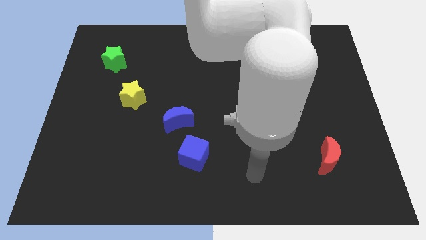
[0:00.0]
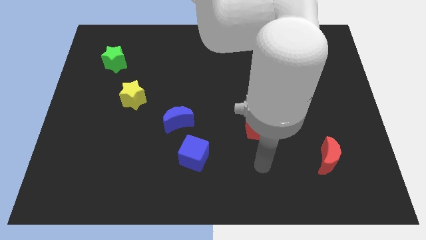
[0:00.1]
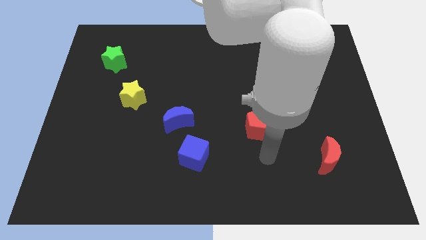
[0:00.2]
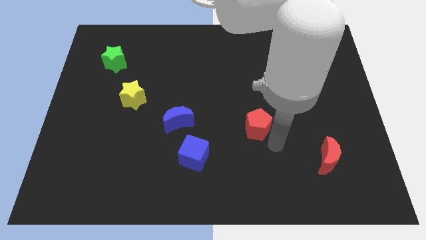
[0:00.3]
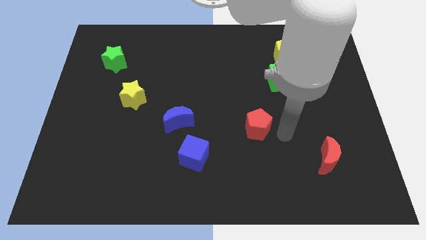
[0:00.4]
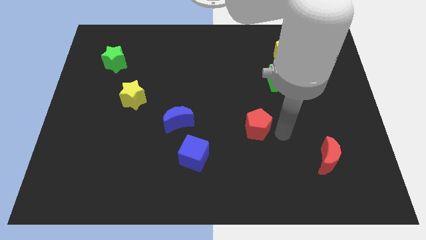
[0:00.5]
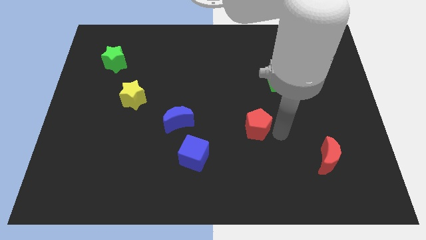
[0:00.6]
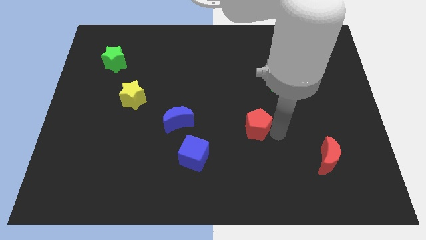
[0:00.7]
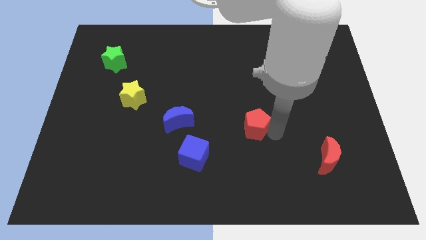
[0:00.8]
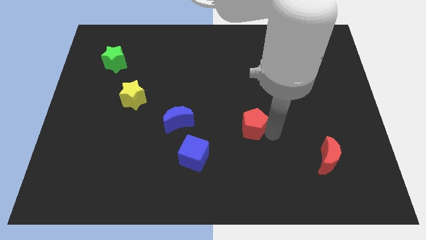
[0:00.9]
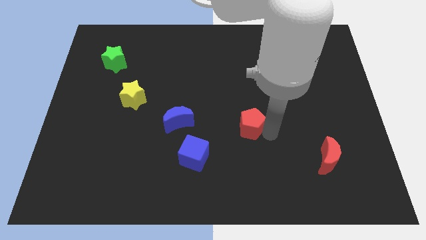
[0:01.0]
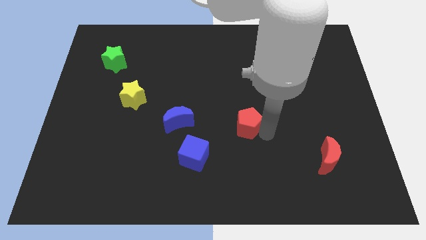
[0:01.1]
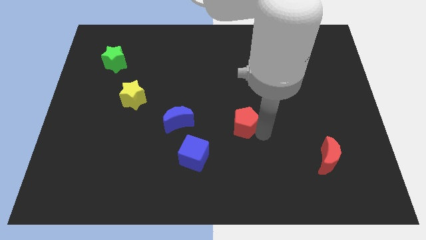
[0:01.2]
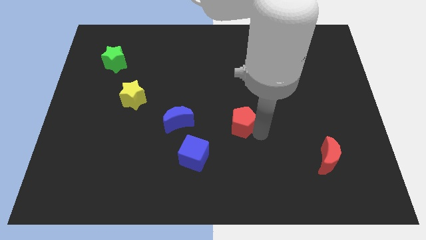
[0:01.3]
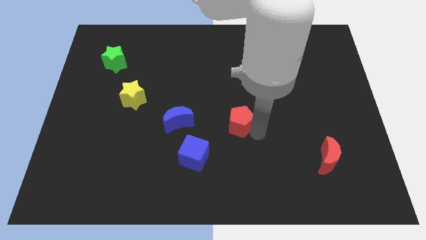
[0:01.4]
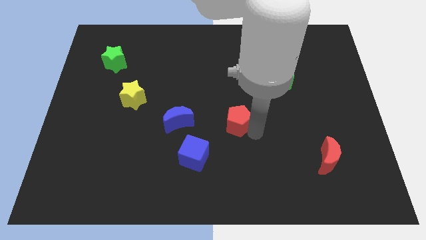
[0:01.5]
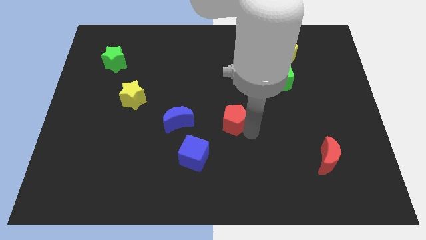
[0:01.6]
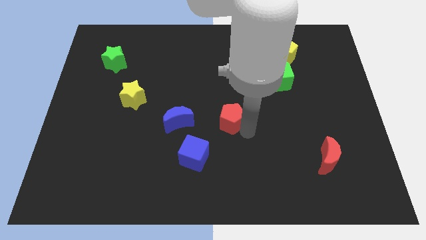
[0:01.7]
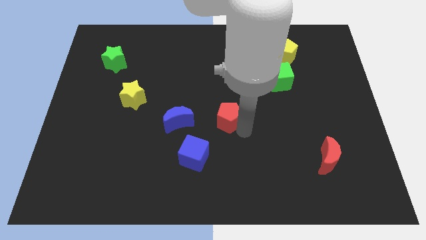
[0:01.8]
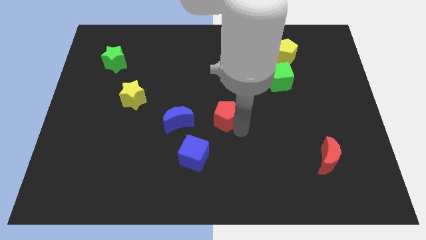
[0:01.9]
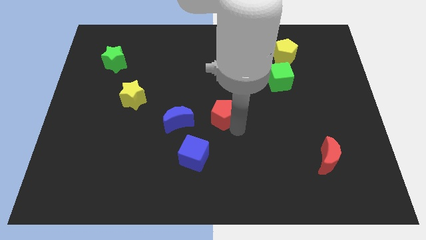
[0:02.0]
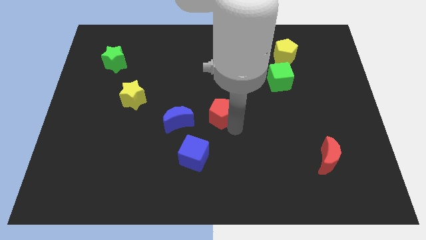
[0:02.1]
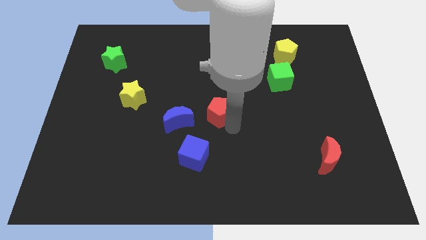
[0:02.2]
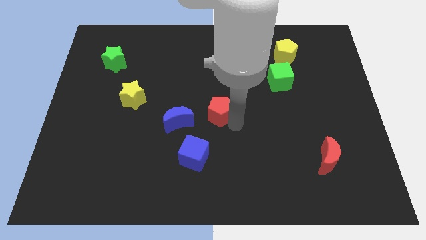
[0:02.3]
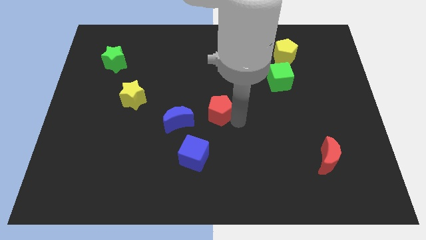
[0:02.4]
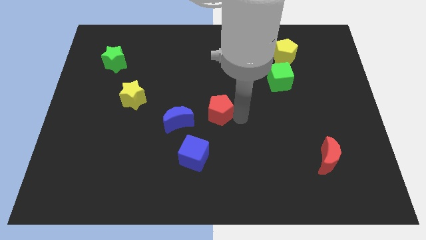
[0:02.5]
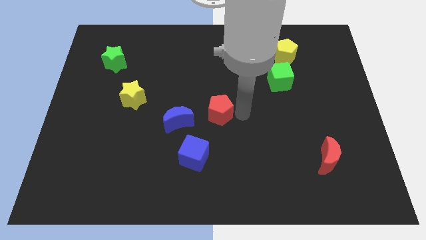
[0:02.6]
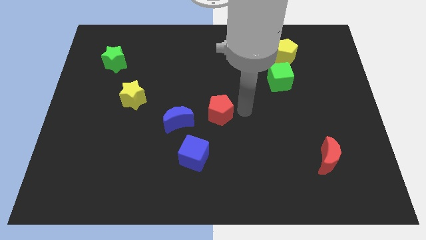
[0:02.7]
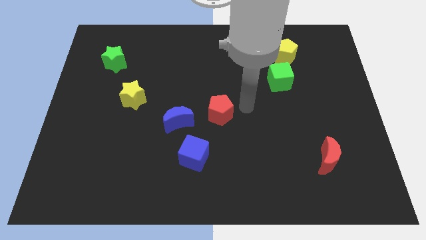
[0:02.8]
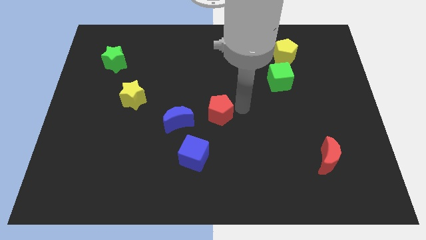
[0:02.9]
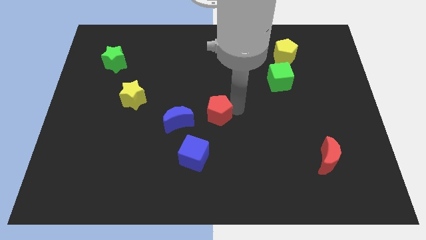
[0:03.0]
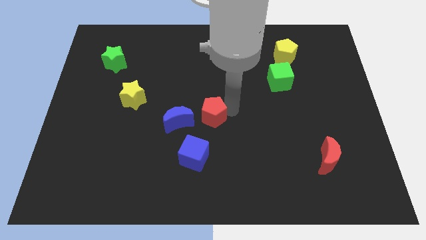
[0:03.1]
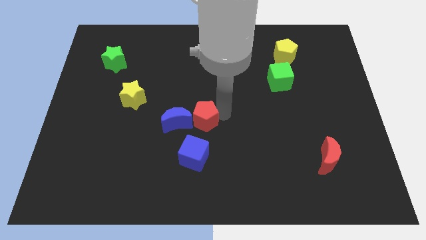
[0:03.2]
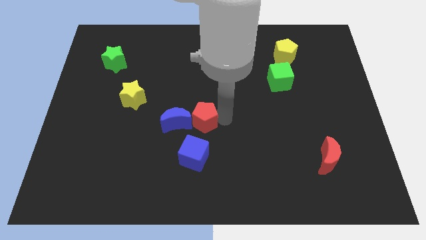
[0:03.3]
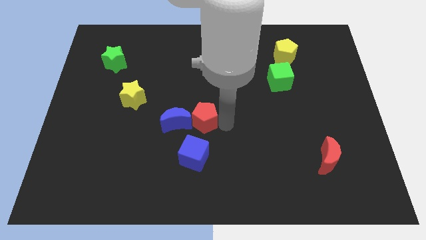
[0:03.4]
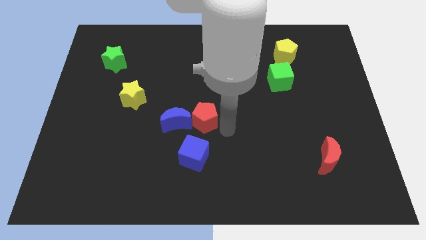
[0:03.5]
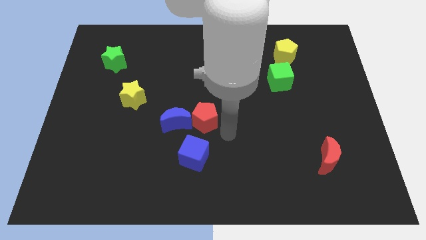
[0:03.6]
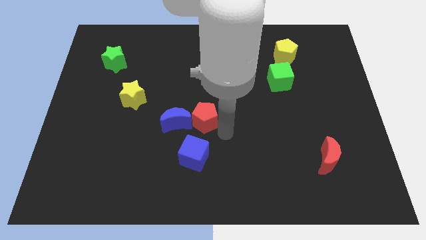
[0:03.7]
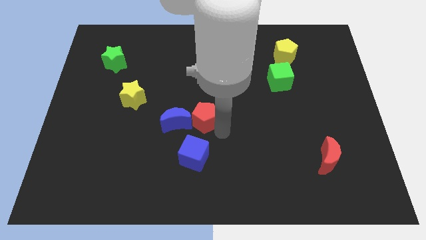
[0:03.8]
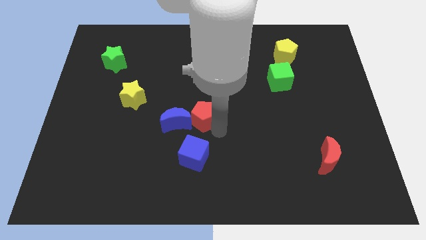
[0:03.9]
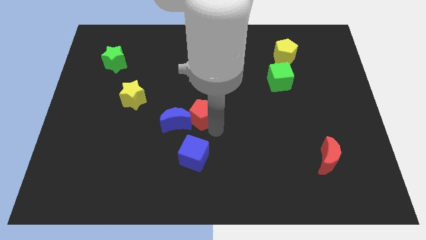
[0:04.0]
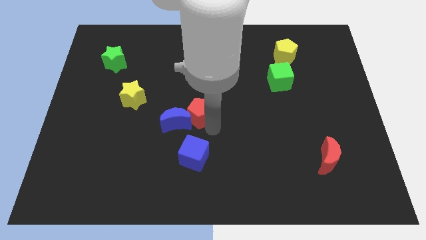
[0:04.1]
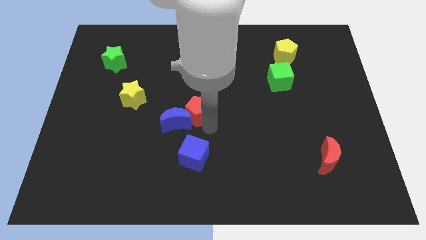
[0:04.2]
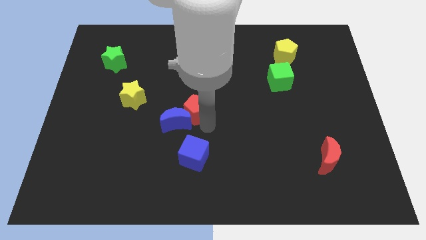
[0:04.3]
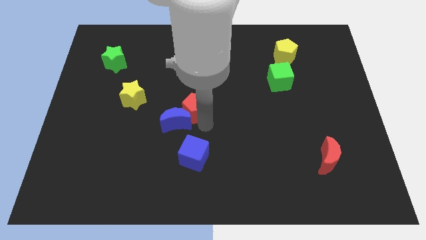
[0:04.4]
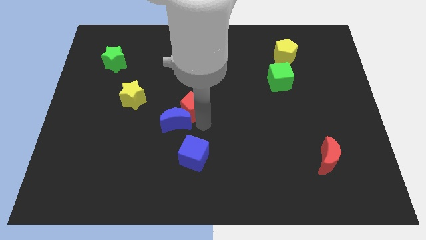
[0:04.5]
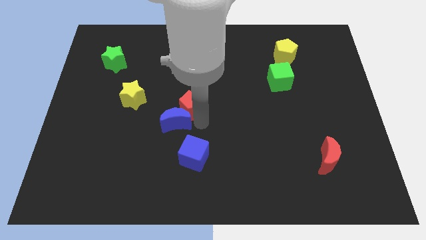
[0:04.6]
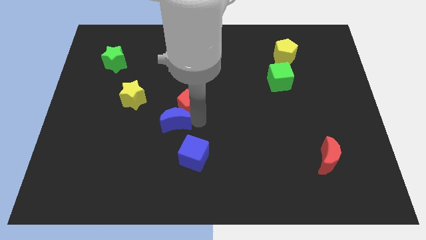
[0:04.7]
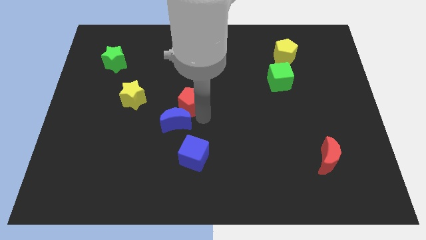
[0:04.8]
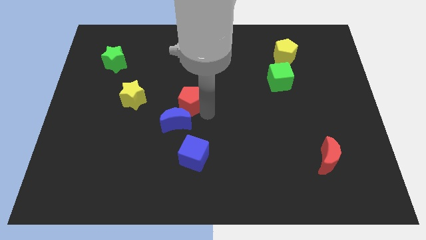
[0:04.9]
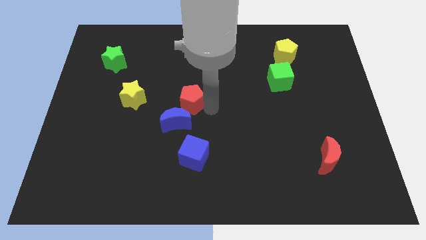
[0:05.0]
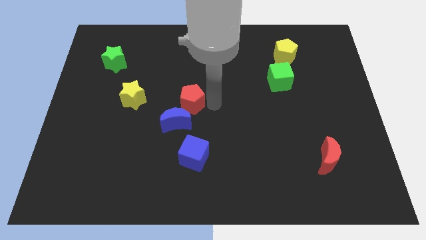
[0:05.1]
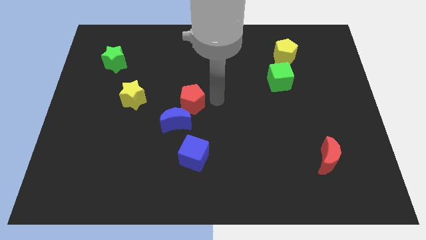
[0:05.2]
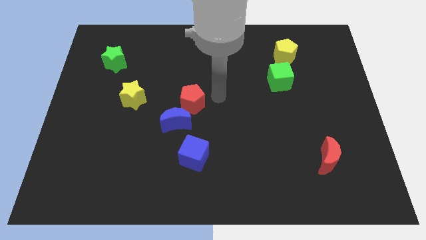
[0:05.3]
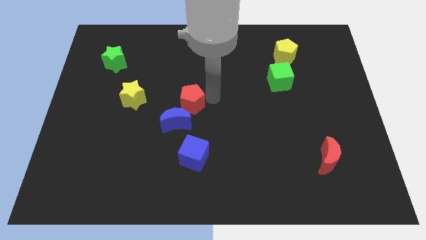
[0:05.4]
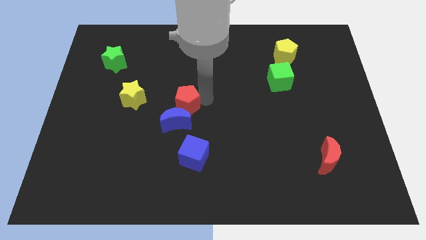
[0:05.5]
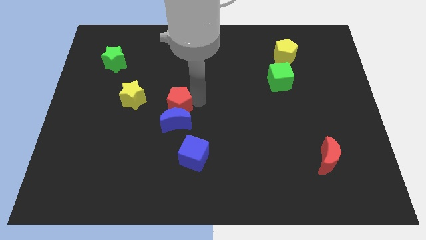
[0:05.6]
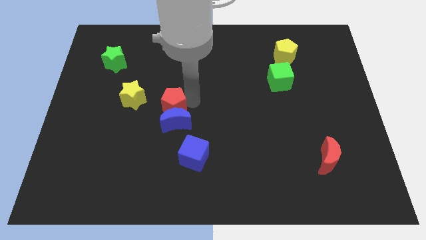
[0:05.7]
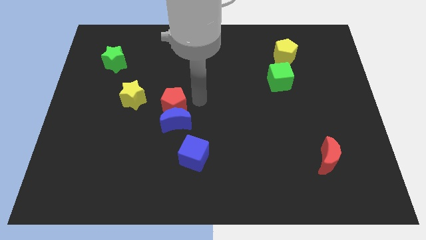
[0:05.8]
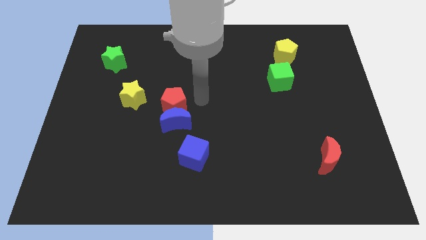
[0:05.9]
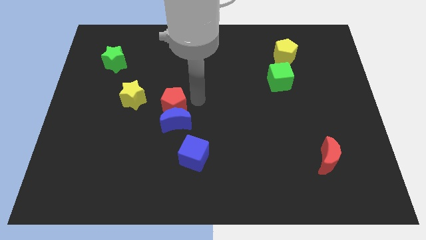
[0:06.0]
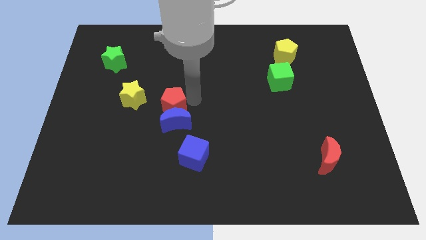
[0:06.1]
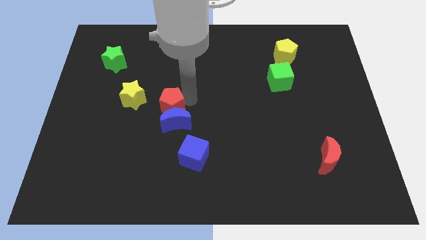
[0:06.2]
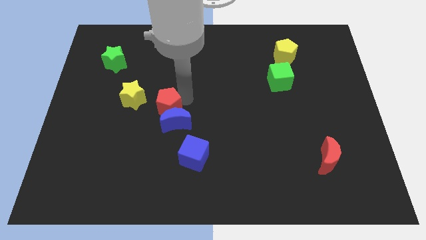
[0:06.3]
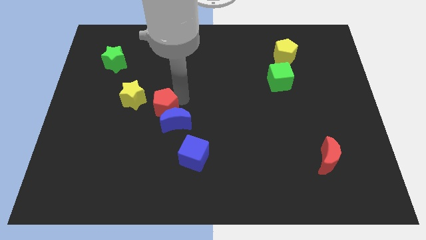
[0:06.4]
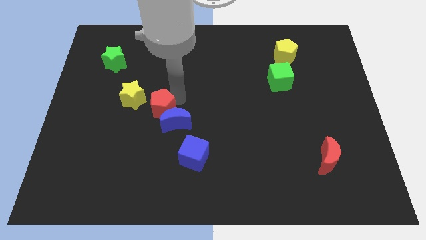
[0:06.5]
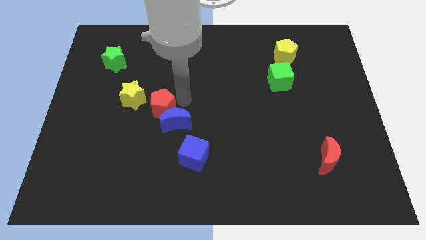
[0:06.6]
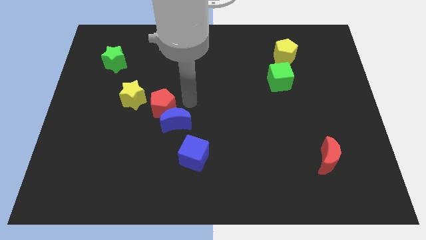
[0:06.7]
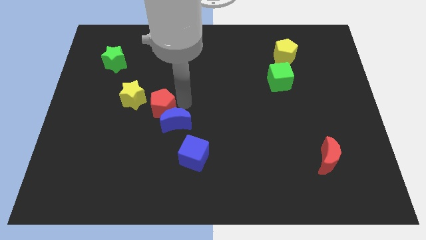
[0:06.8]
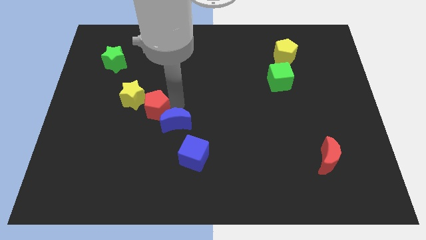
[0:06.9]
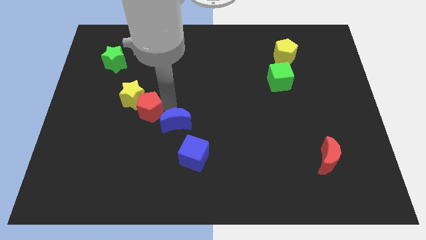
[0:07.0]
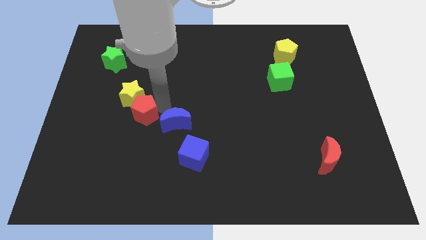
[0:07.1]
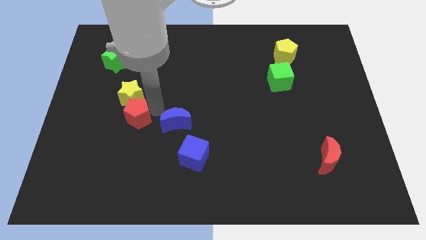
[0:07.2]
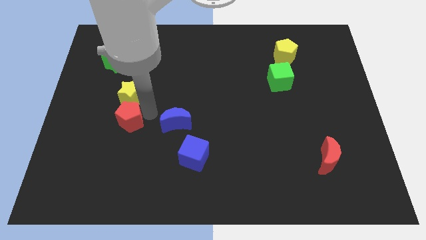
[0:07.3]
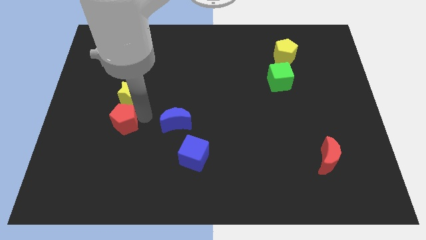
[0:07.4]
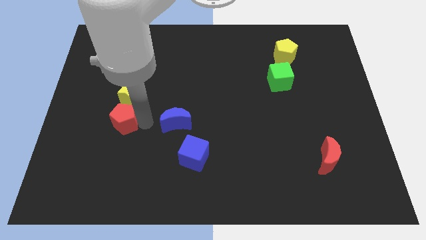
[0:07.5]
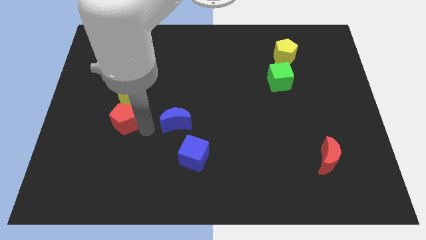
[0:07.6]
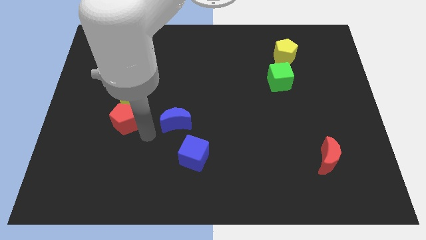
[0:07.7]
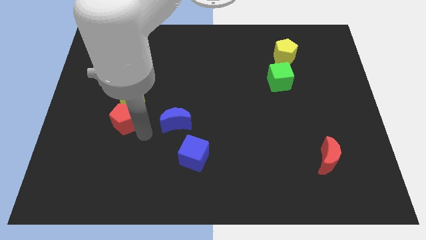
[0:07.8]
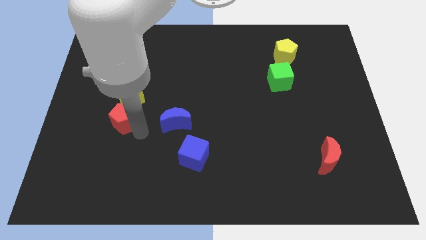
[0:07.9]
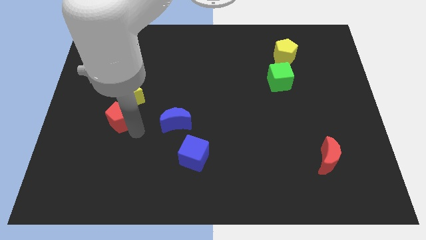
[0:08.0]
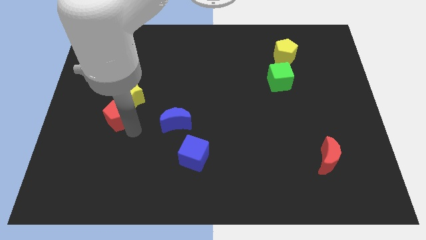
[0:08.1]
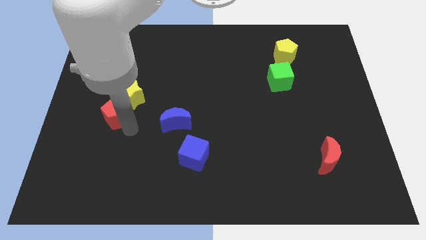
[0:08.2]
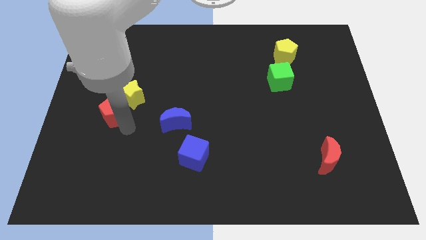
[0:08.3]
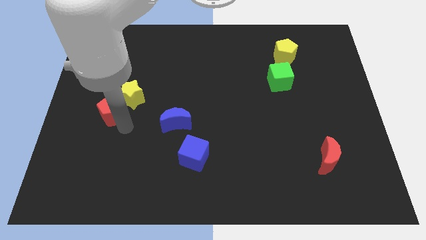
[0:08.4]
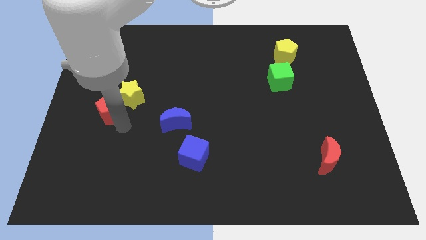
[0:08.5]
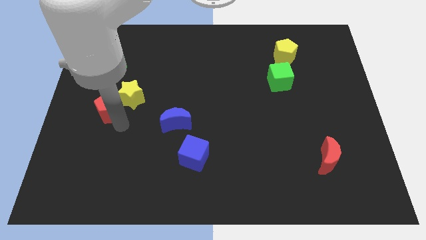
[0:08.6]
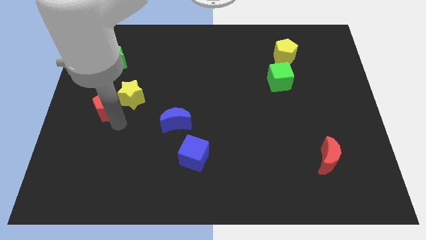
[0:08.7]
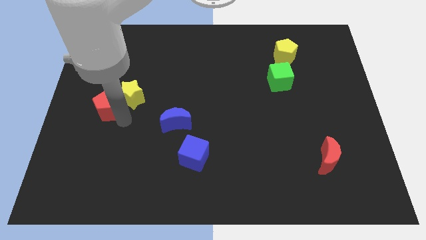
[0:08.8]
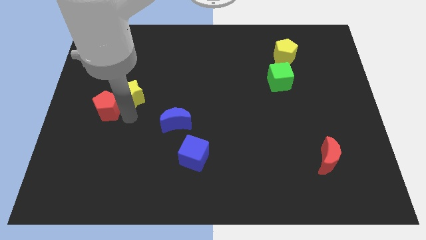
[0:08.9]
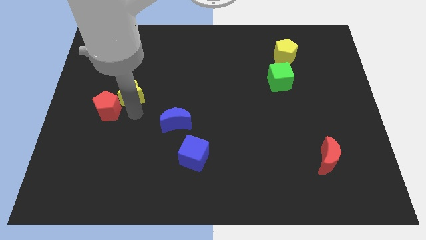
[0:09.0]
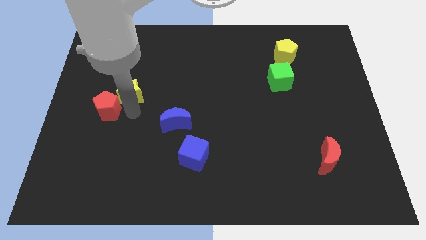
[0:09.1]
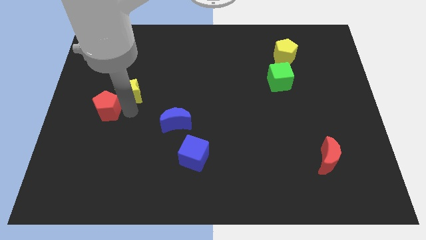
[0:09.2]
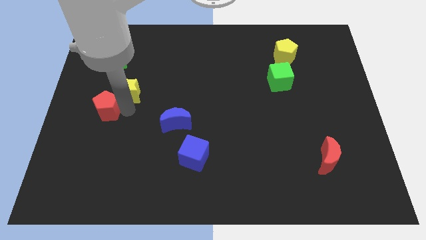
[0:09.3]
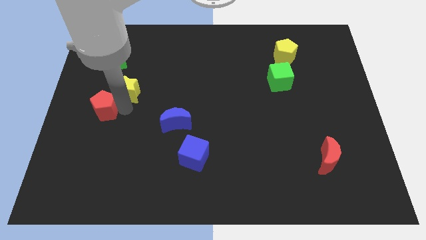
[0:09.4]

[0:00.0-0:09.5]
put the red pentagon to the left side of the board
